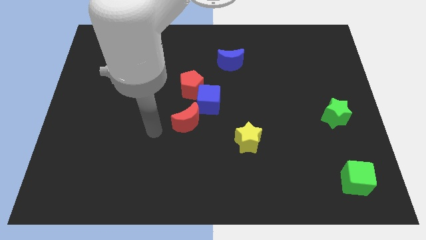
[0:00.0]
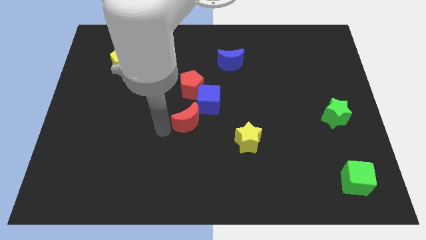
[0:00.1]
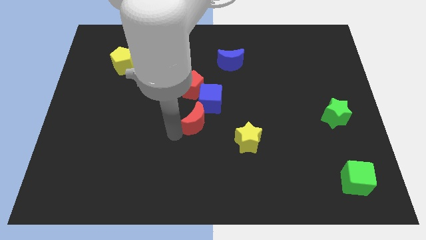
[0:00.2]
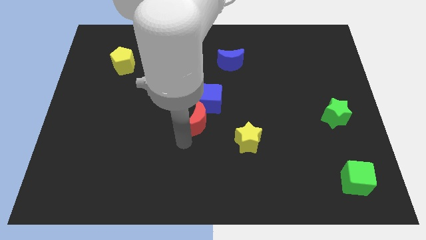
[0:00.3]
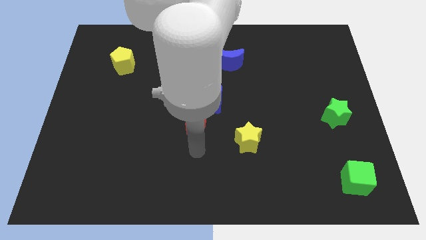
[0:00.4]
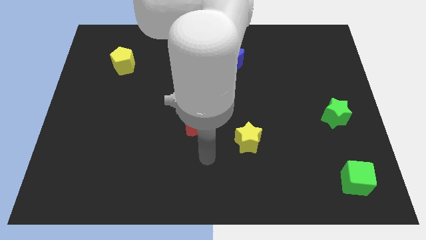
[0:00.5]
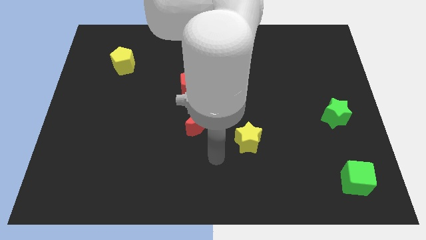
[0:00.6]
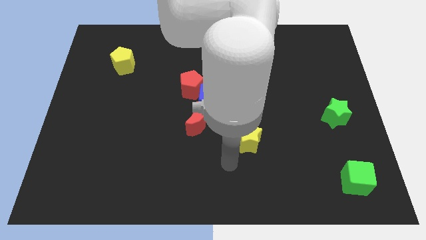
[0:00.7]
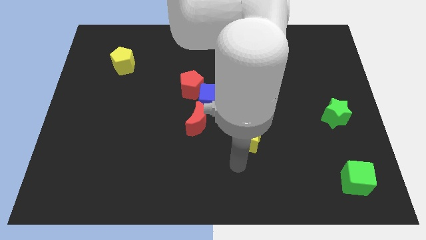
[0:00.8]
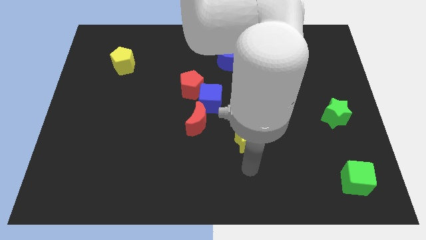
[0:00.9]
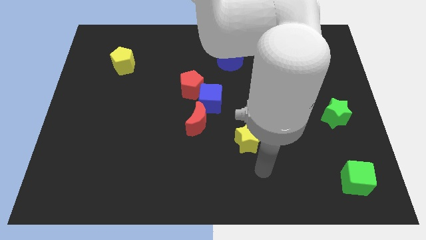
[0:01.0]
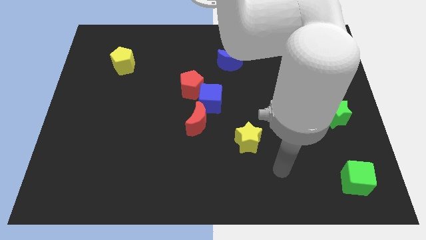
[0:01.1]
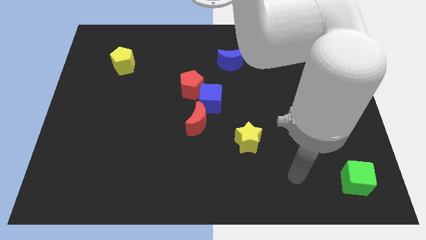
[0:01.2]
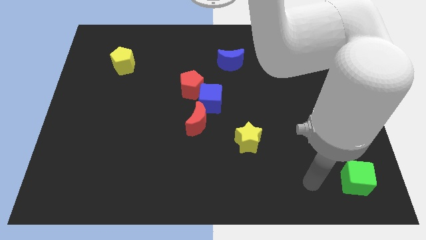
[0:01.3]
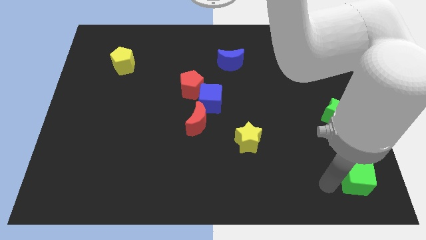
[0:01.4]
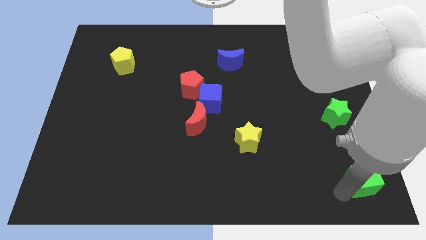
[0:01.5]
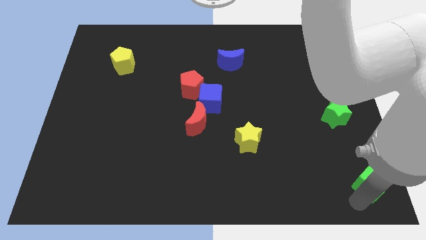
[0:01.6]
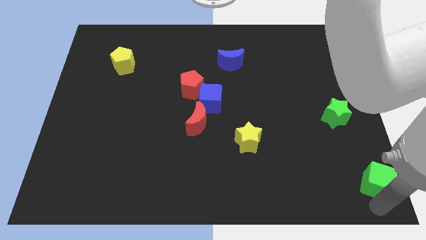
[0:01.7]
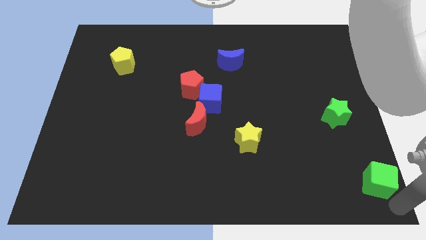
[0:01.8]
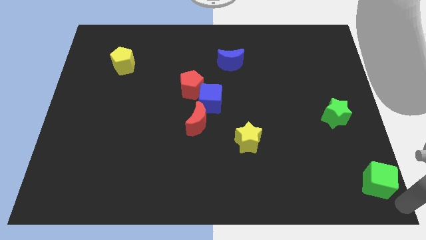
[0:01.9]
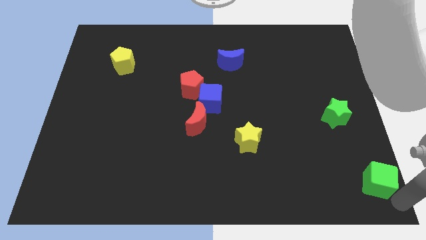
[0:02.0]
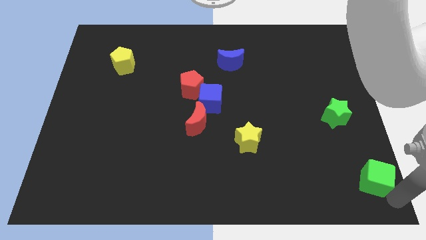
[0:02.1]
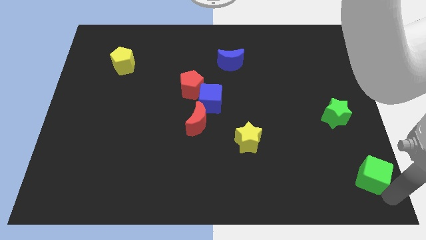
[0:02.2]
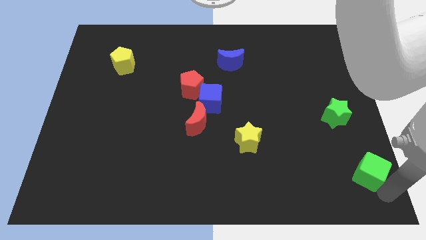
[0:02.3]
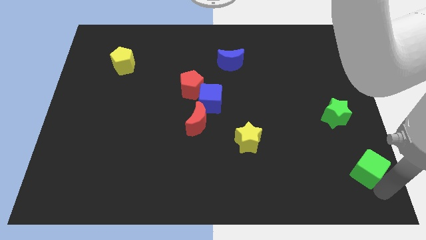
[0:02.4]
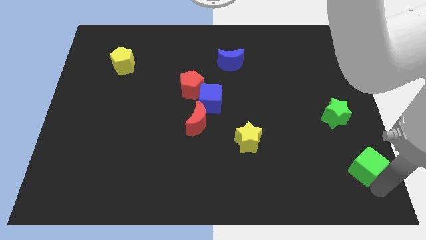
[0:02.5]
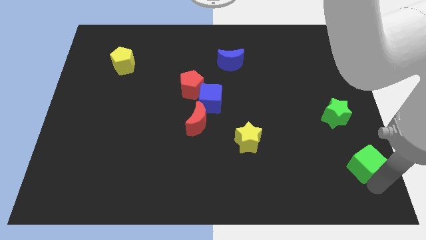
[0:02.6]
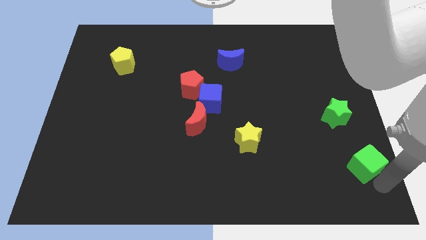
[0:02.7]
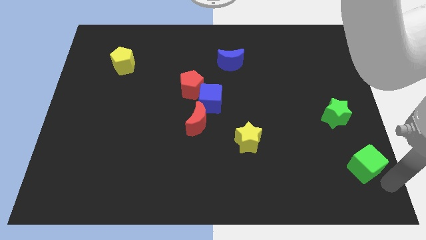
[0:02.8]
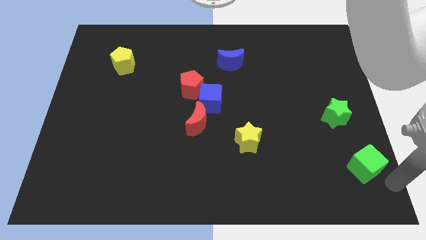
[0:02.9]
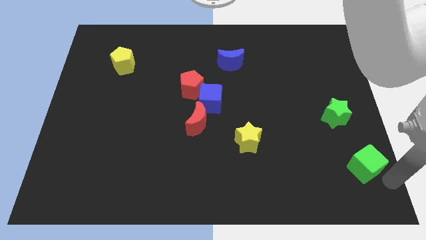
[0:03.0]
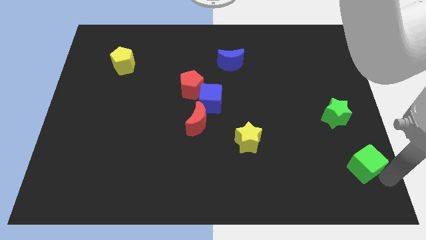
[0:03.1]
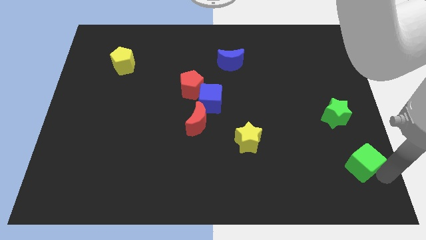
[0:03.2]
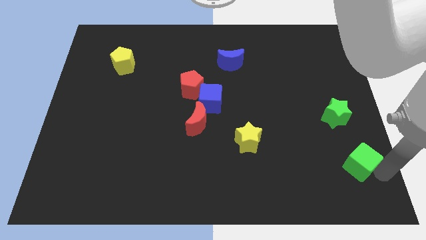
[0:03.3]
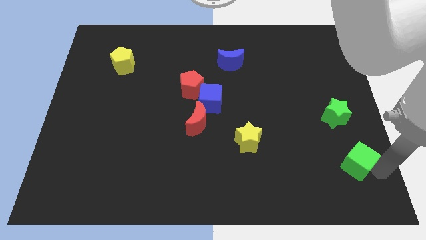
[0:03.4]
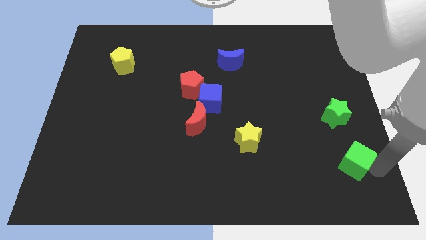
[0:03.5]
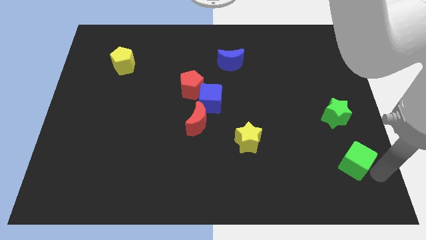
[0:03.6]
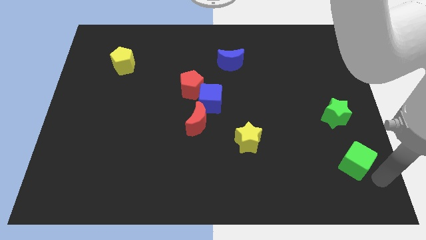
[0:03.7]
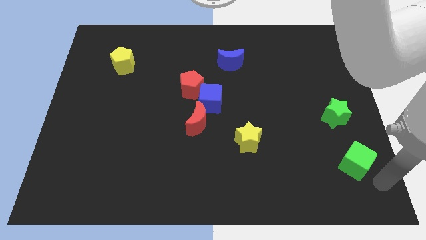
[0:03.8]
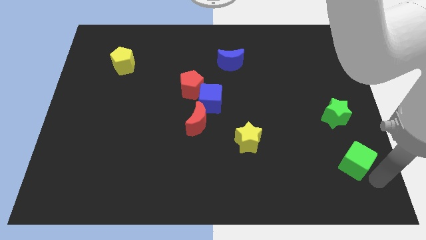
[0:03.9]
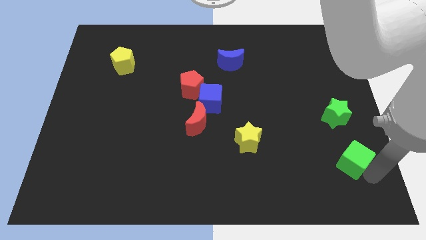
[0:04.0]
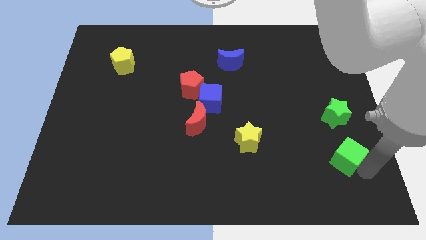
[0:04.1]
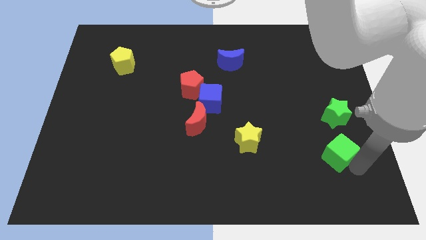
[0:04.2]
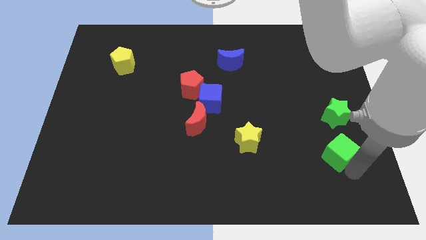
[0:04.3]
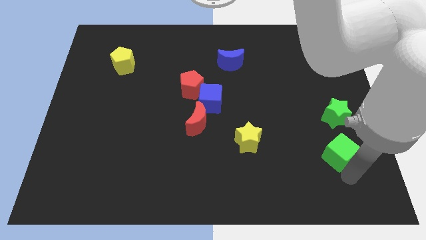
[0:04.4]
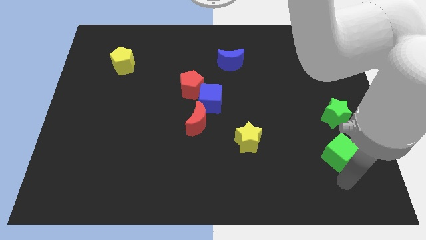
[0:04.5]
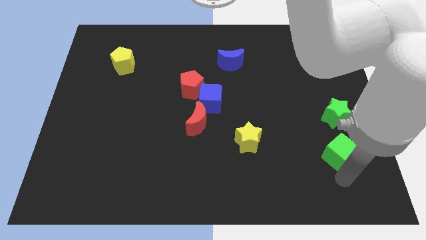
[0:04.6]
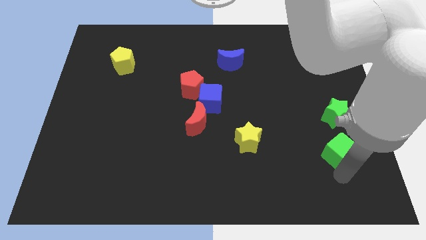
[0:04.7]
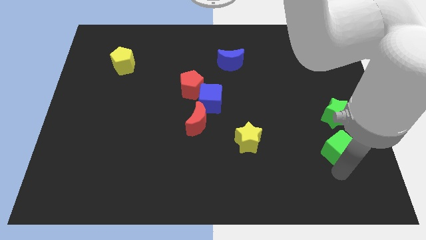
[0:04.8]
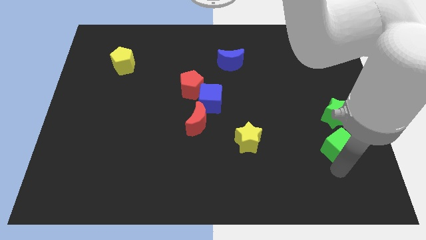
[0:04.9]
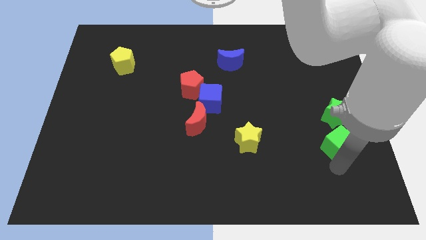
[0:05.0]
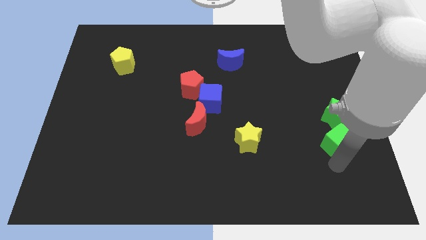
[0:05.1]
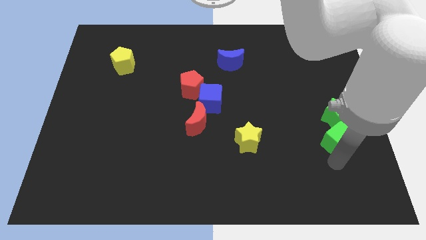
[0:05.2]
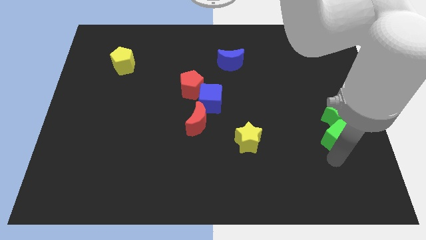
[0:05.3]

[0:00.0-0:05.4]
move the green cube next to the green star

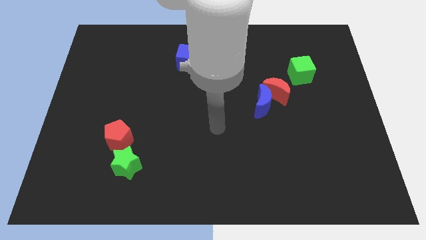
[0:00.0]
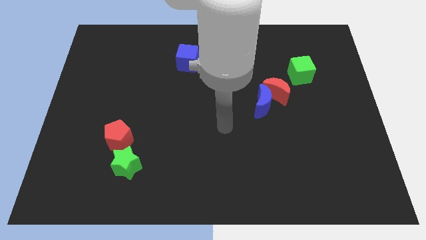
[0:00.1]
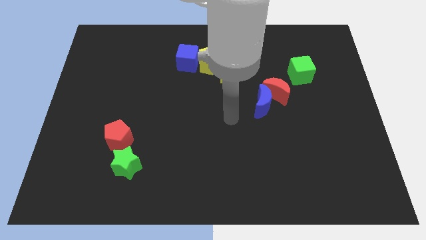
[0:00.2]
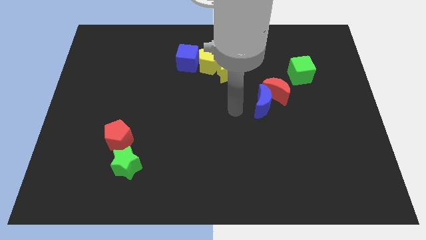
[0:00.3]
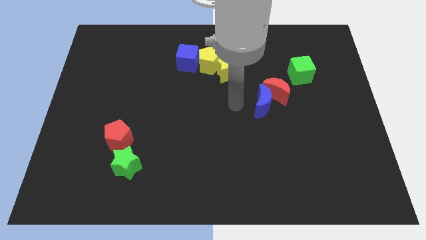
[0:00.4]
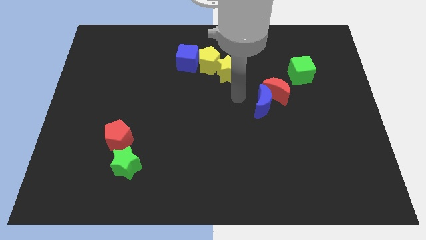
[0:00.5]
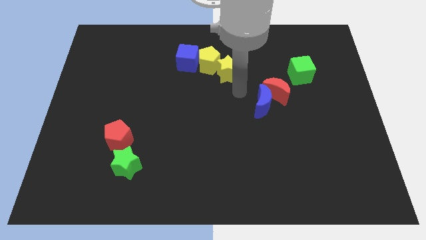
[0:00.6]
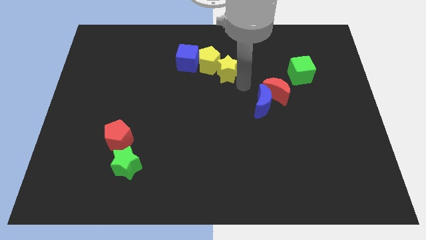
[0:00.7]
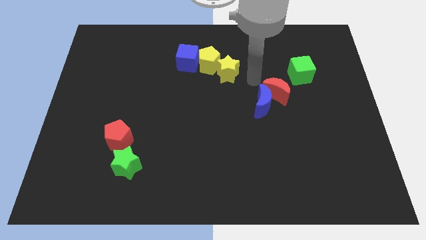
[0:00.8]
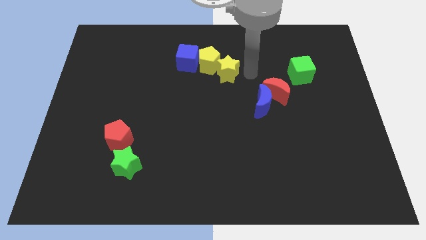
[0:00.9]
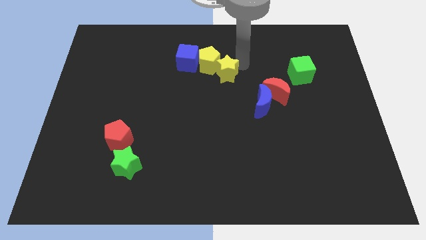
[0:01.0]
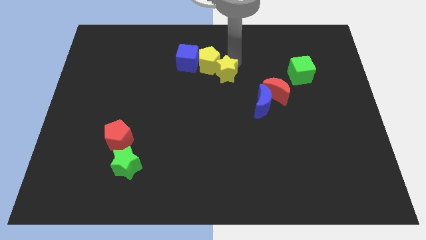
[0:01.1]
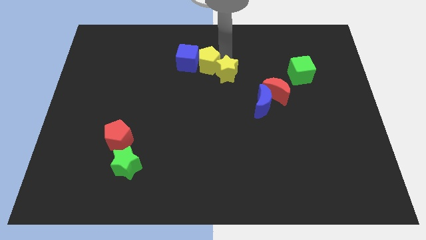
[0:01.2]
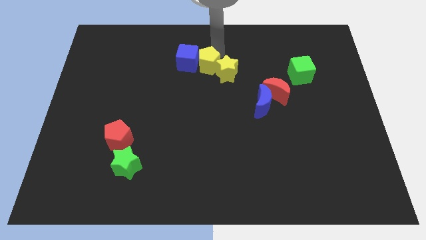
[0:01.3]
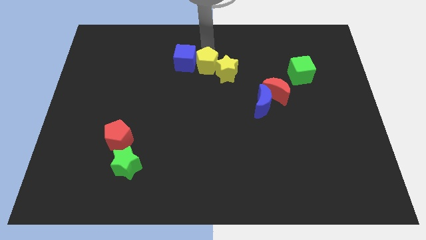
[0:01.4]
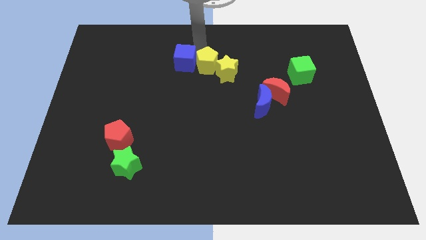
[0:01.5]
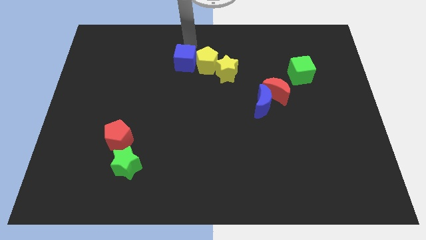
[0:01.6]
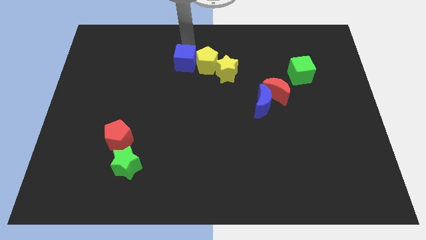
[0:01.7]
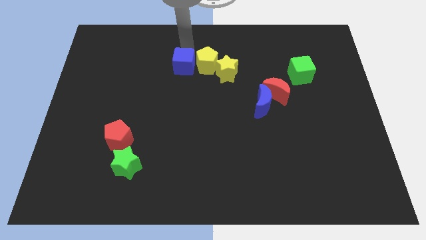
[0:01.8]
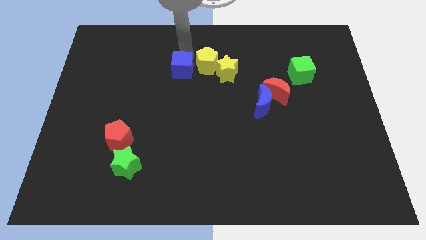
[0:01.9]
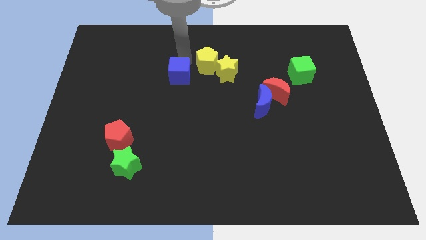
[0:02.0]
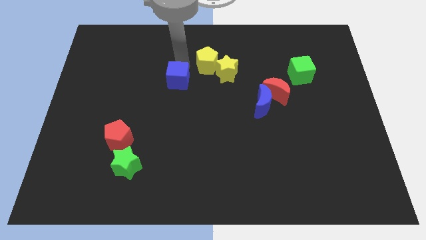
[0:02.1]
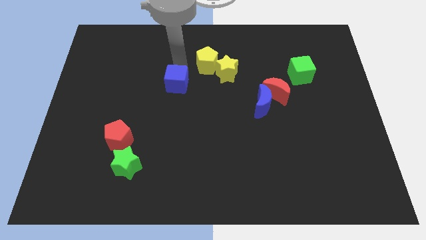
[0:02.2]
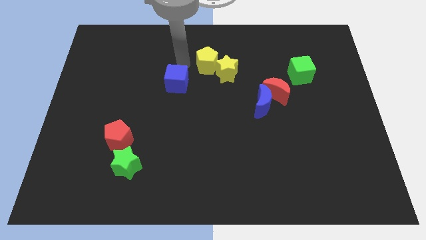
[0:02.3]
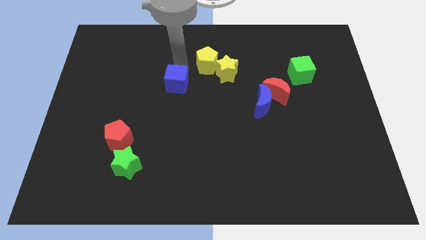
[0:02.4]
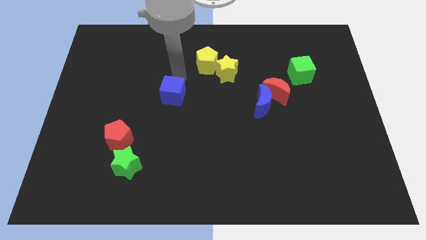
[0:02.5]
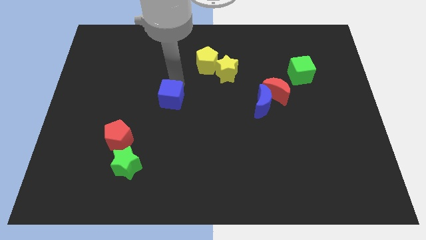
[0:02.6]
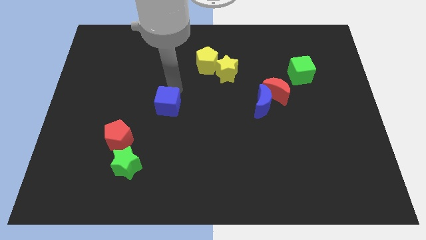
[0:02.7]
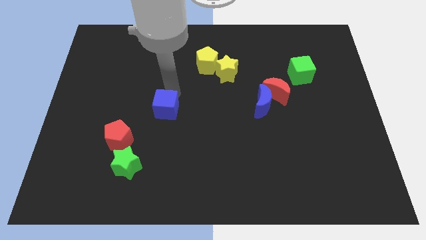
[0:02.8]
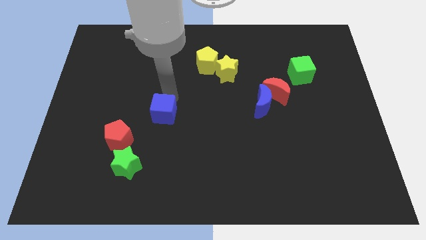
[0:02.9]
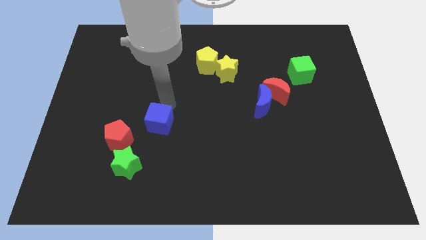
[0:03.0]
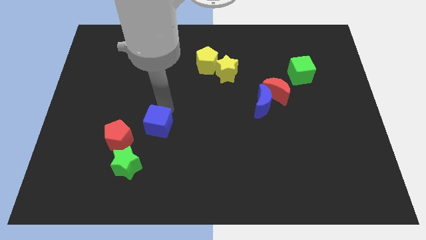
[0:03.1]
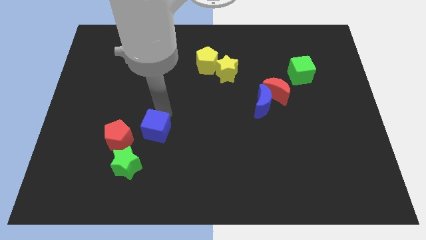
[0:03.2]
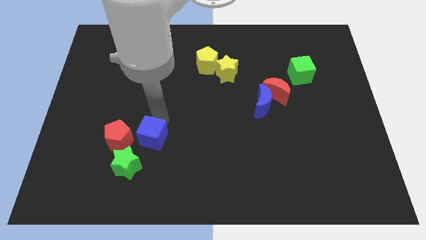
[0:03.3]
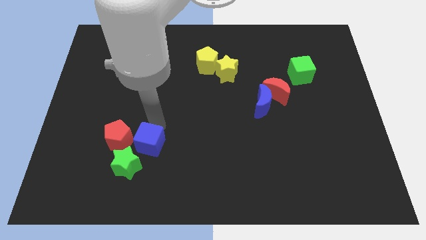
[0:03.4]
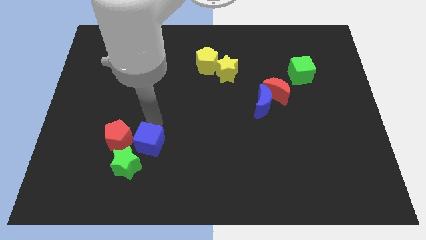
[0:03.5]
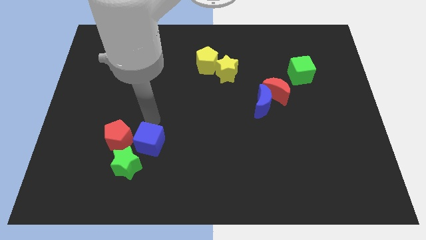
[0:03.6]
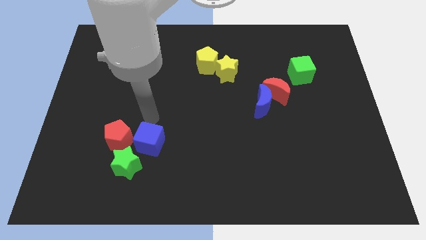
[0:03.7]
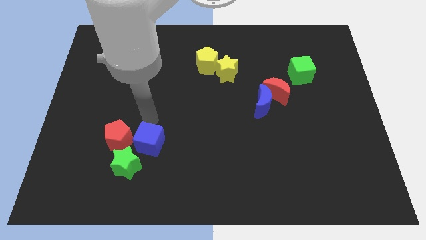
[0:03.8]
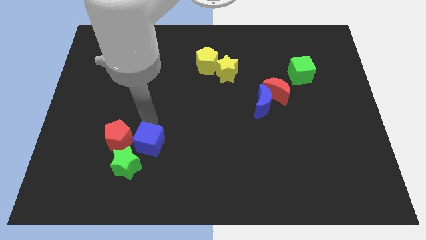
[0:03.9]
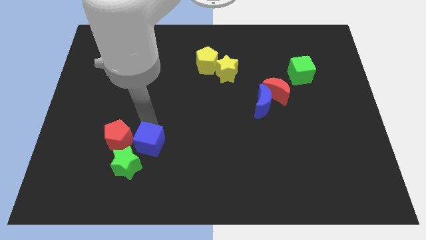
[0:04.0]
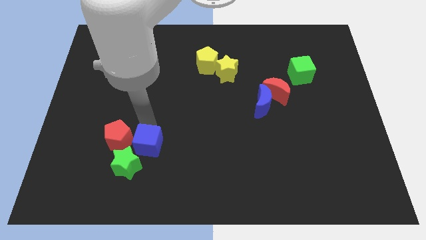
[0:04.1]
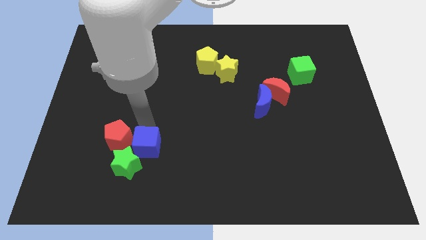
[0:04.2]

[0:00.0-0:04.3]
move the blue cube to the green star
